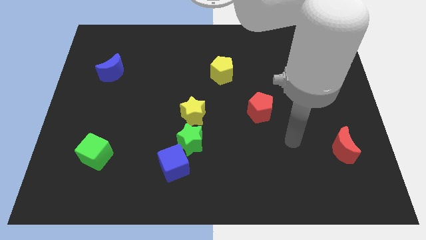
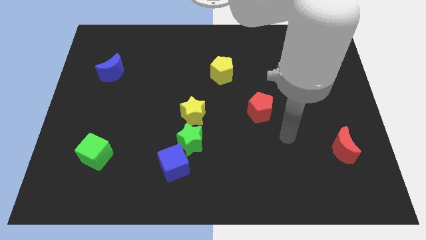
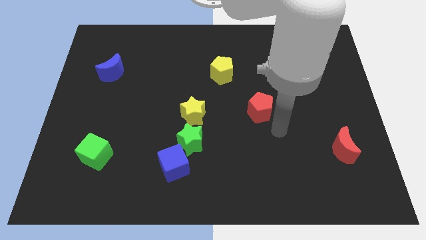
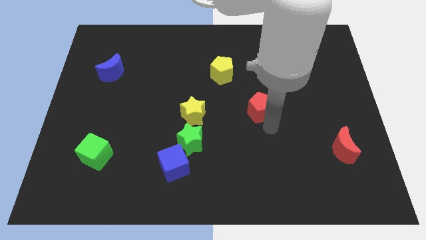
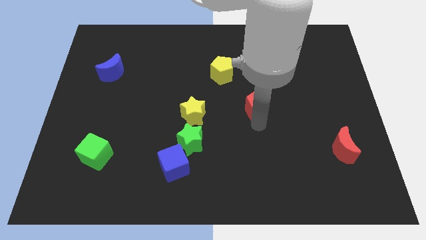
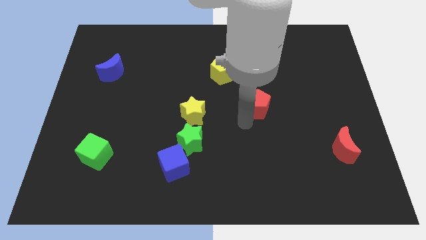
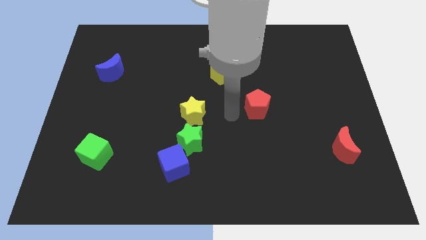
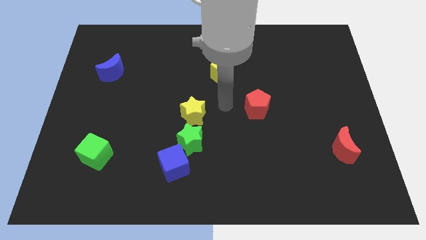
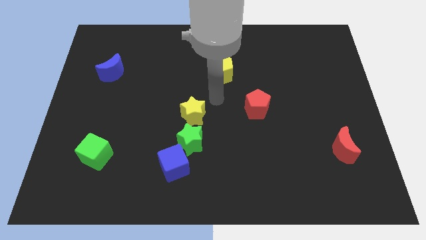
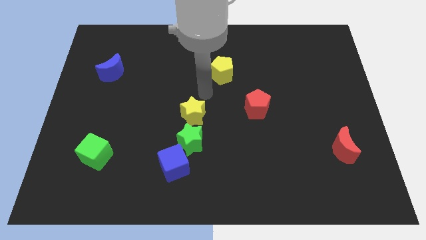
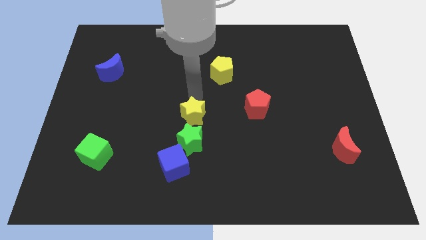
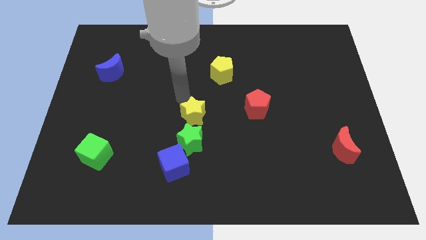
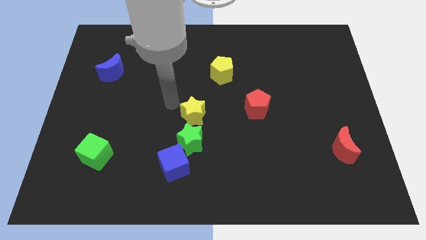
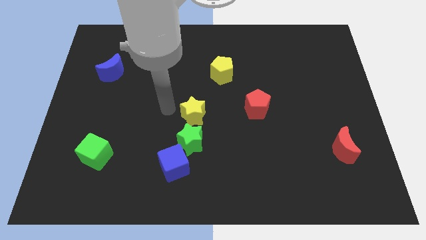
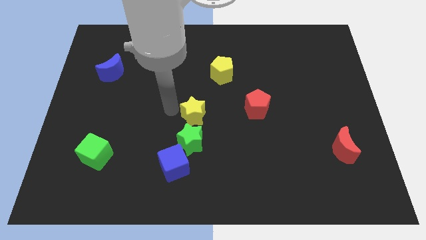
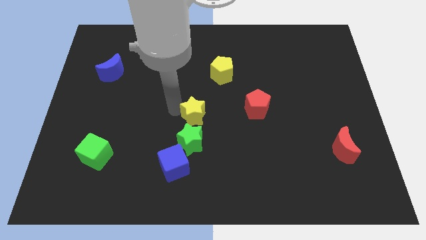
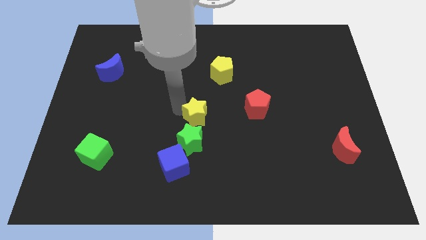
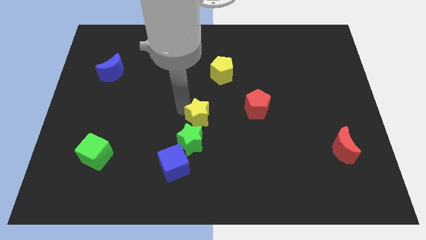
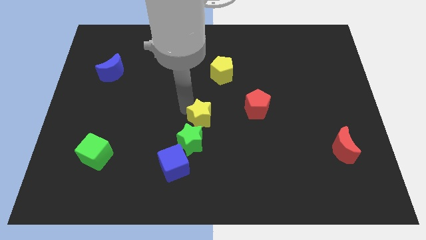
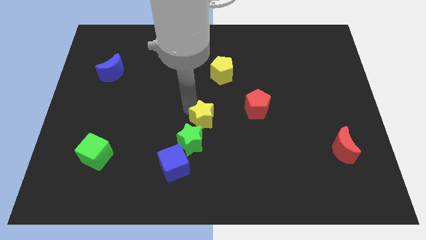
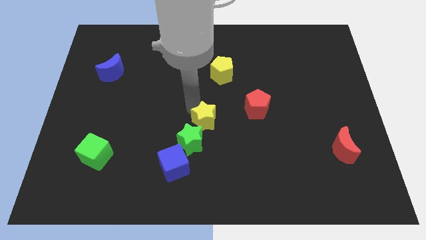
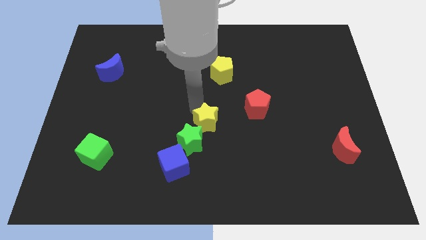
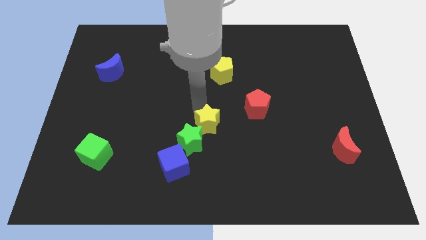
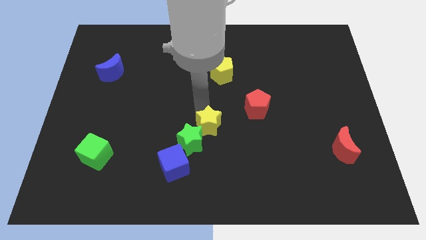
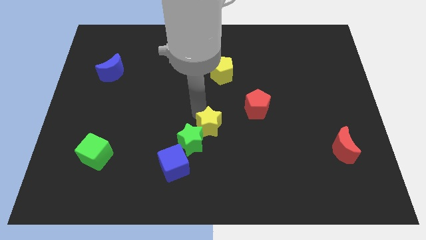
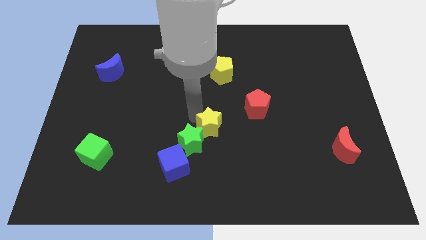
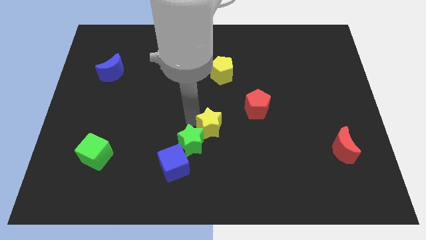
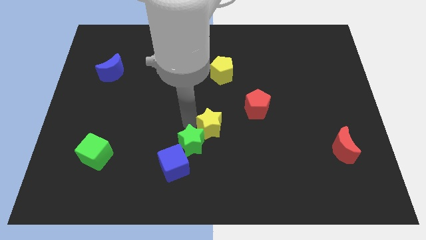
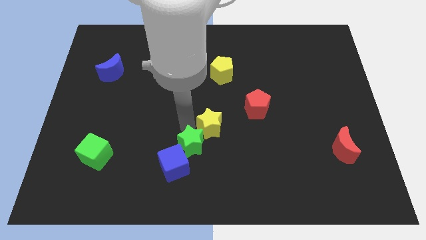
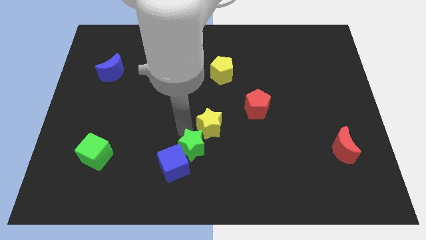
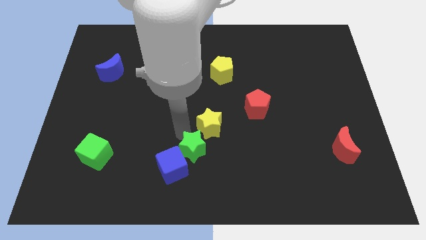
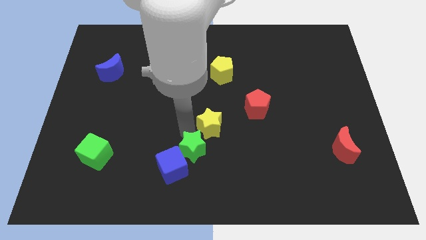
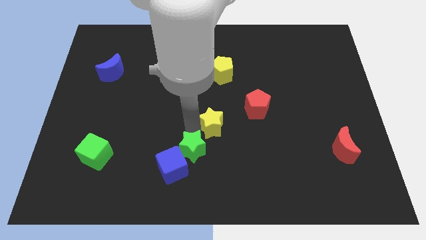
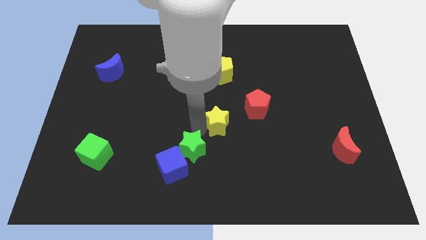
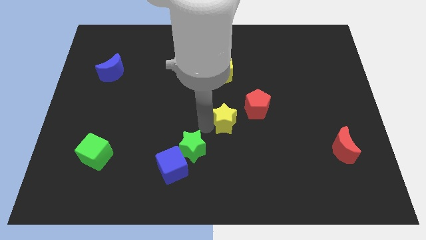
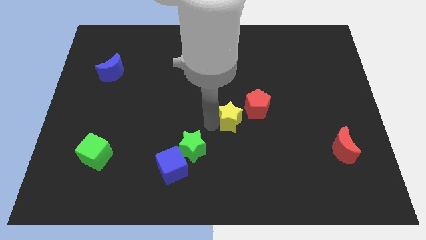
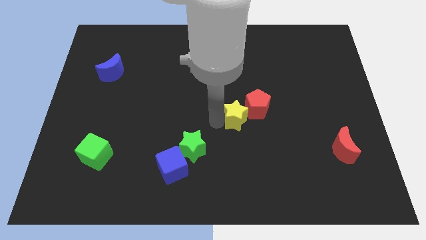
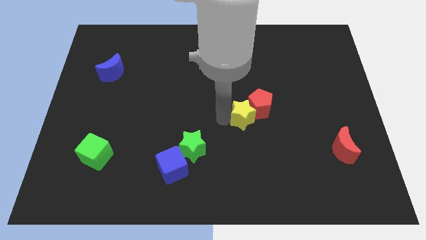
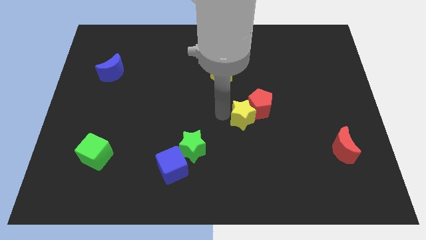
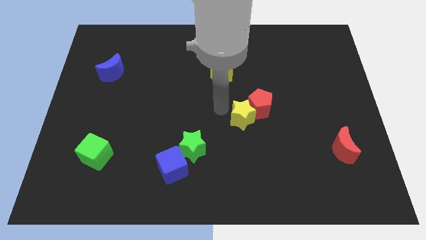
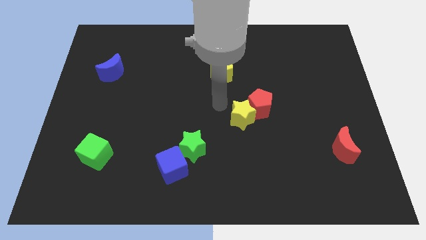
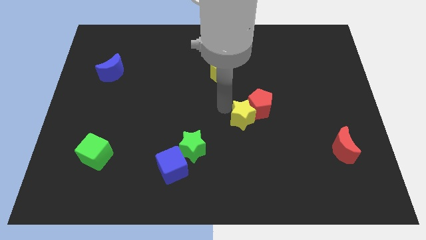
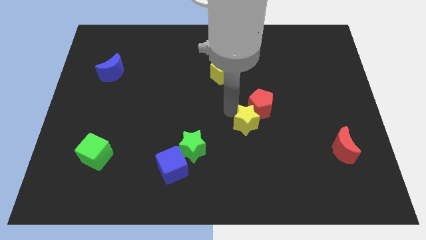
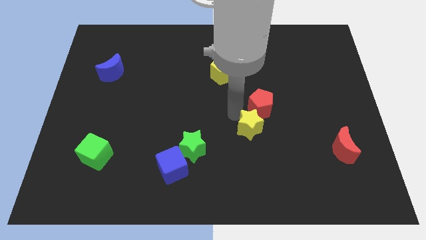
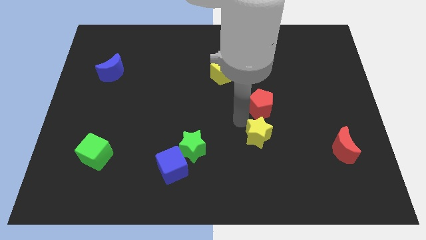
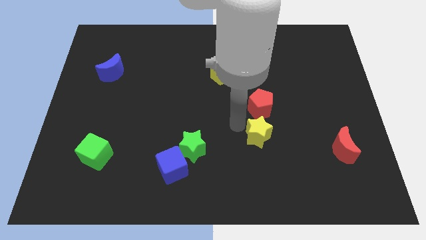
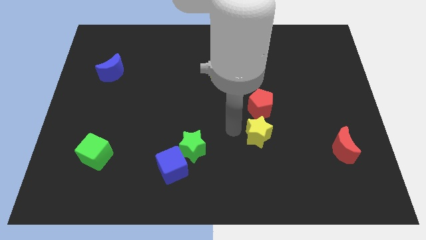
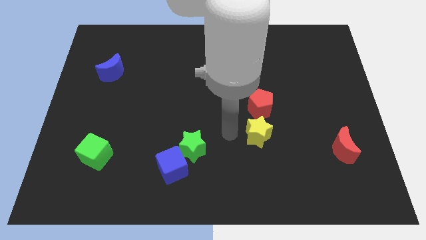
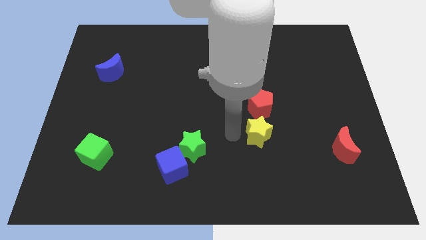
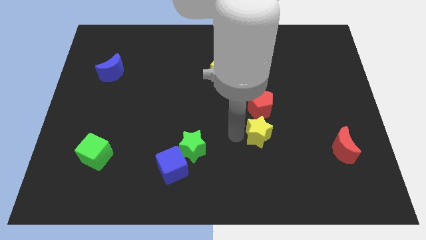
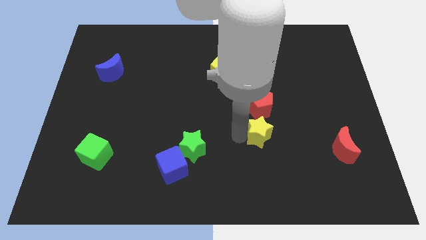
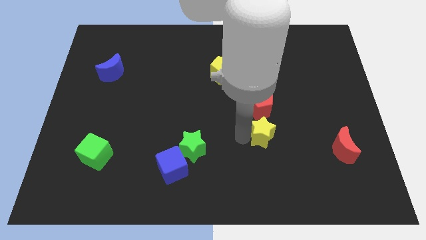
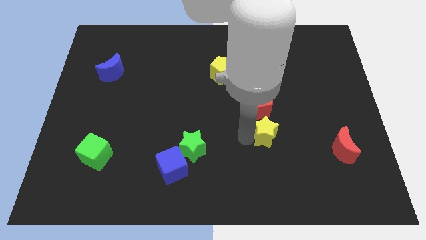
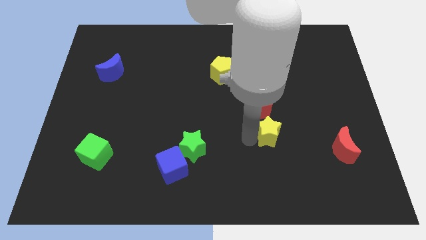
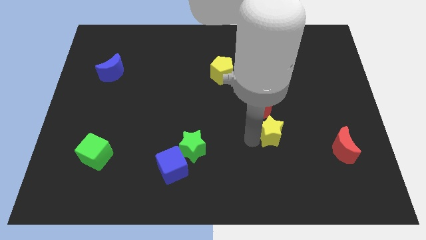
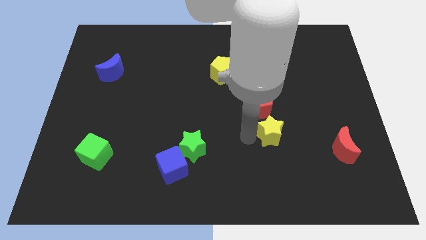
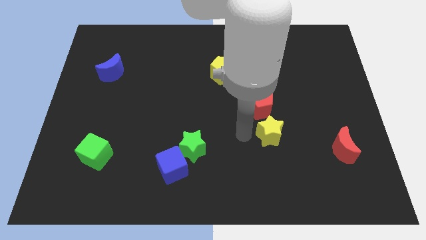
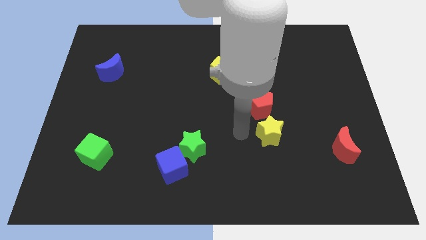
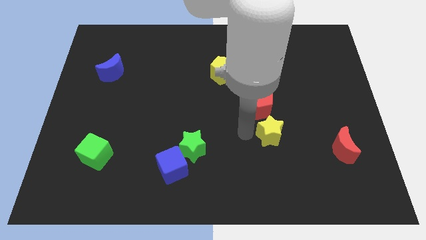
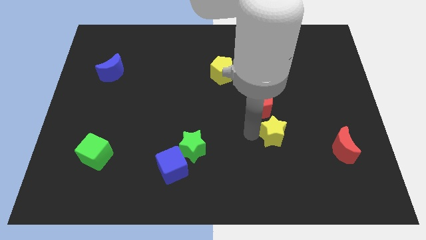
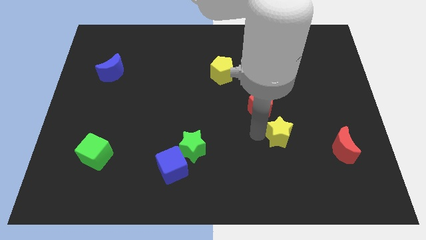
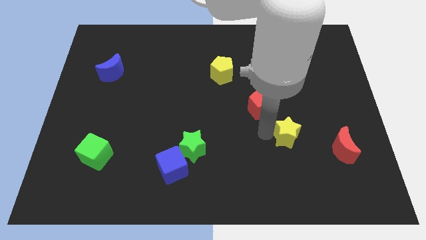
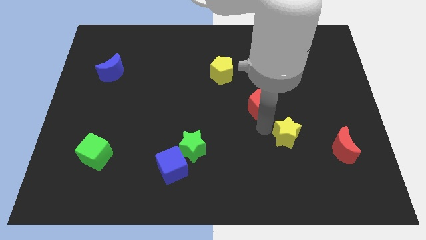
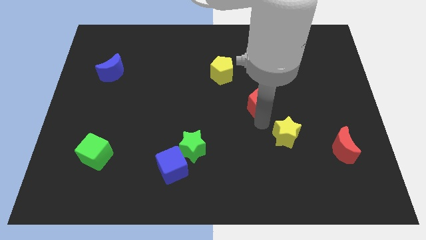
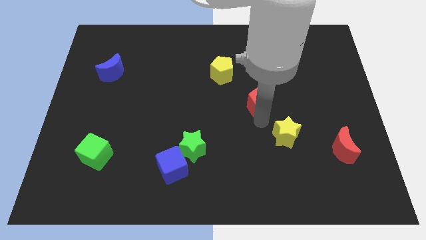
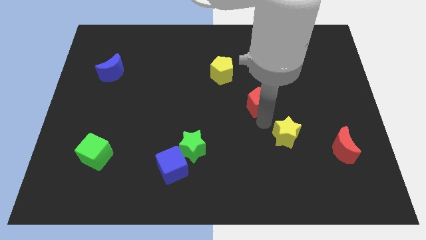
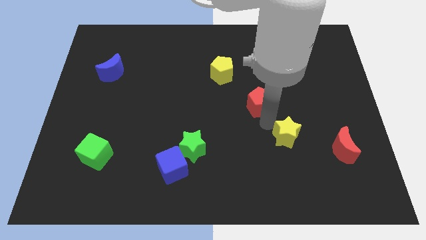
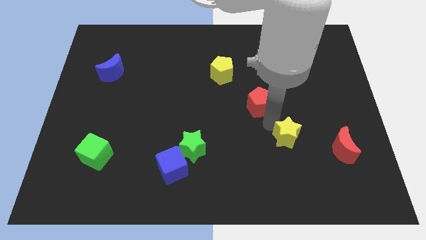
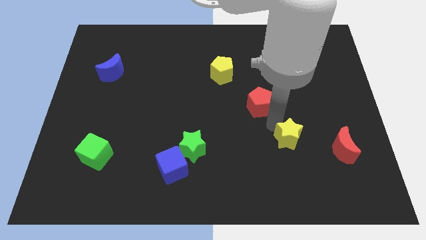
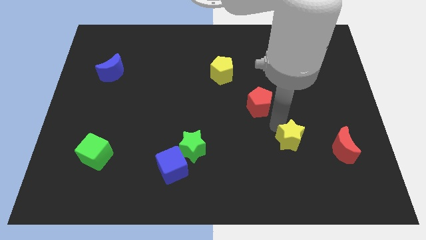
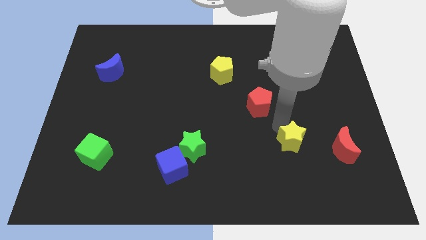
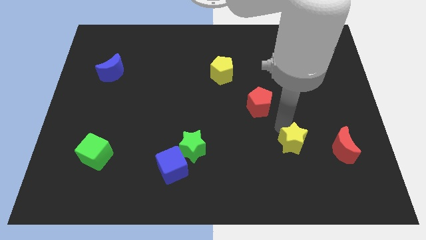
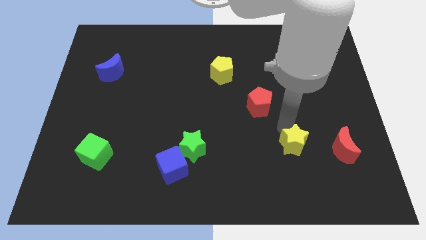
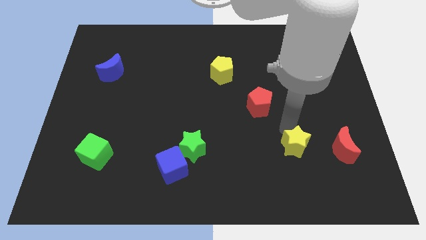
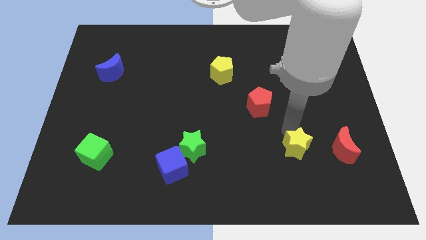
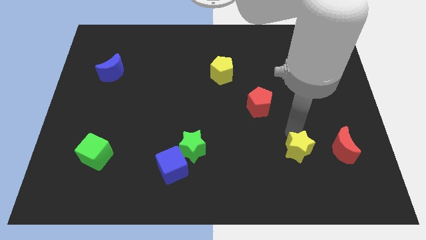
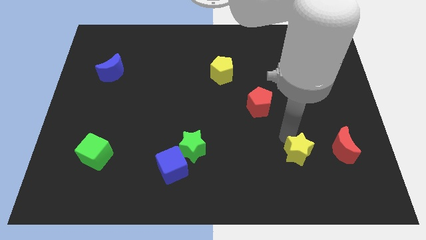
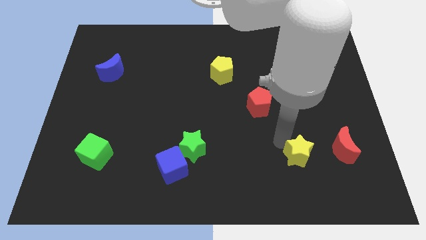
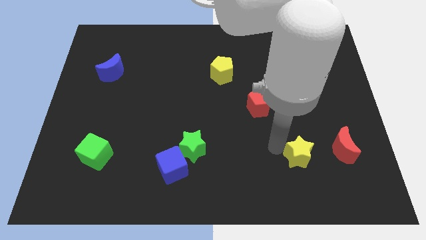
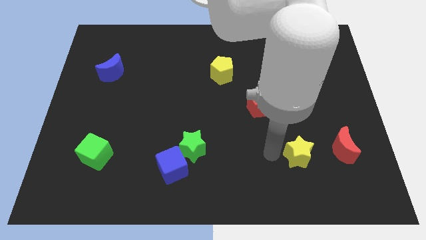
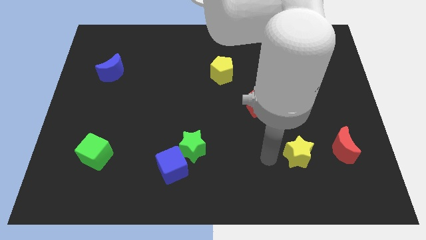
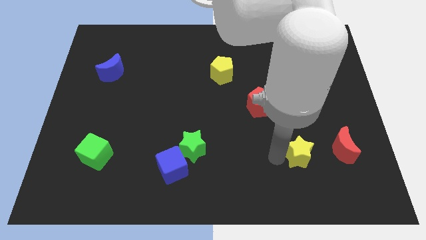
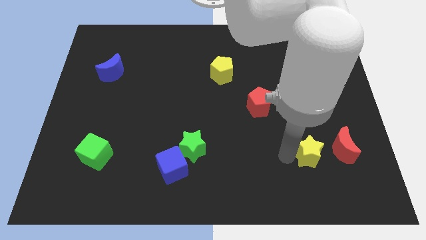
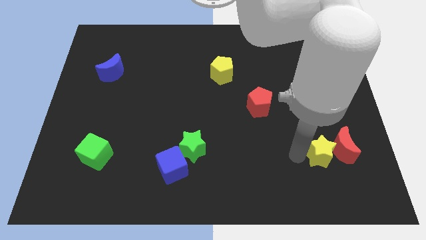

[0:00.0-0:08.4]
move the yellow star close to the red moon
